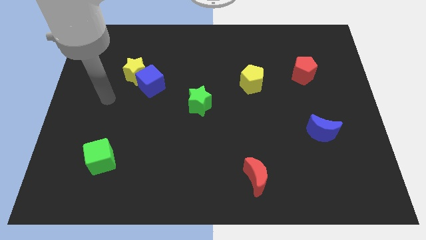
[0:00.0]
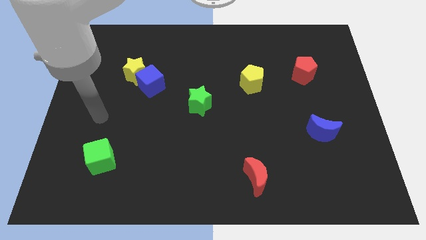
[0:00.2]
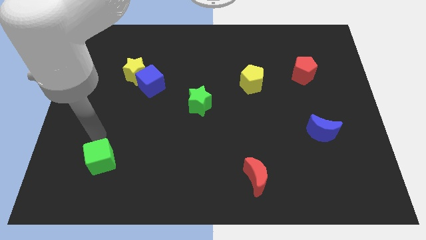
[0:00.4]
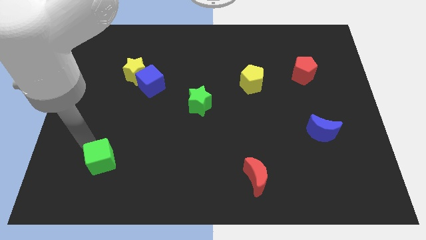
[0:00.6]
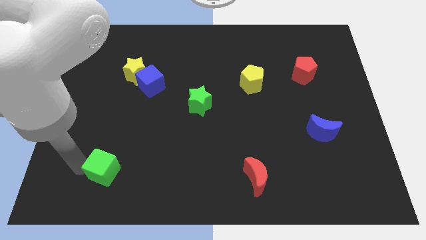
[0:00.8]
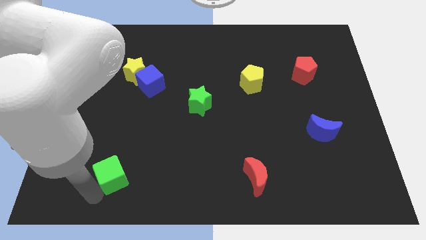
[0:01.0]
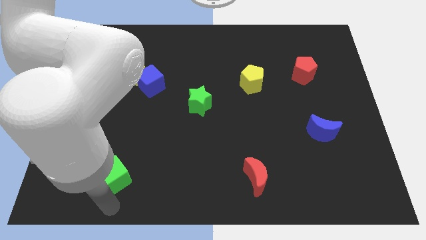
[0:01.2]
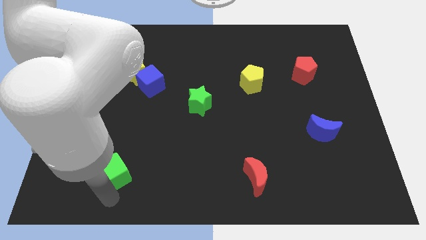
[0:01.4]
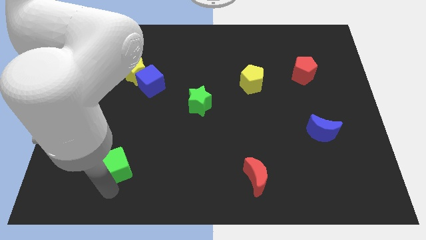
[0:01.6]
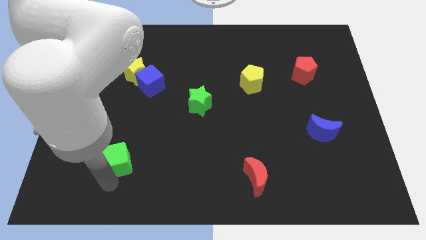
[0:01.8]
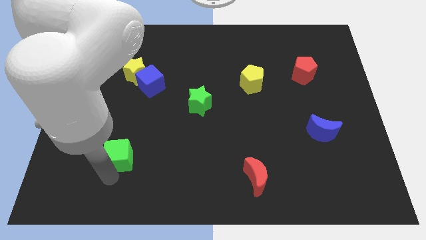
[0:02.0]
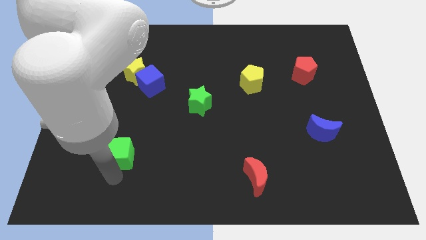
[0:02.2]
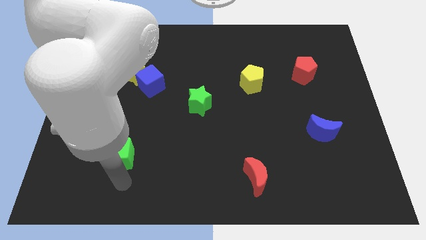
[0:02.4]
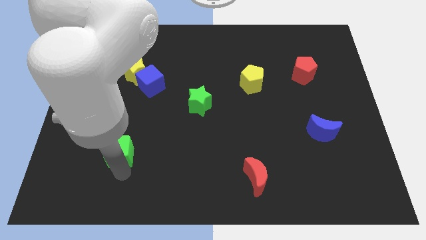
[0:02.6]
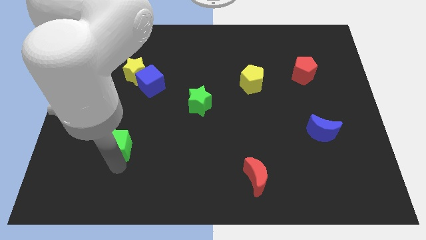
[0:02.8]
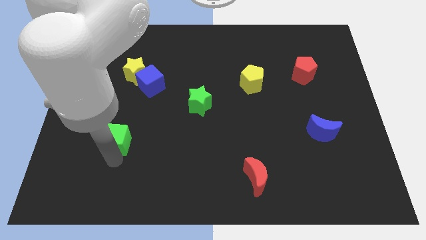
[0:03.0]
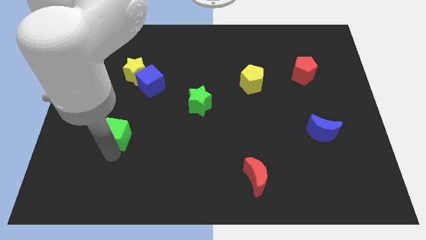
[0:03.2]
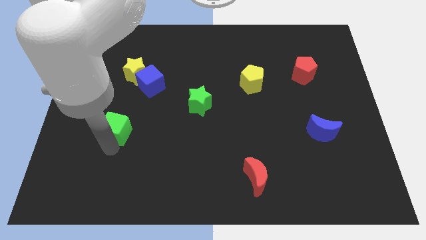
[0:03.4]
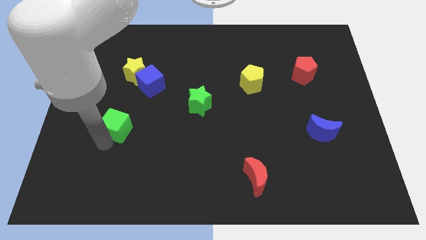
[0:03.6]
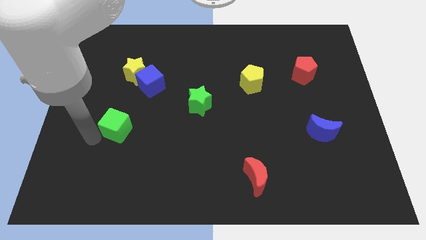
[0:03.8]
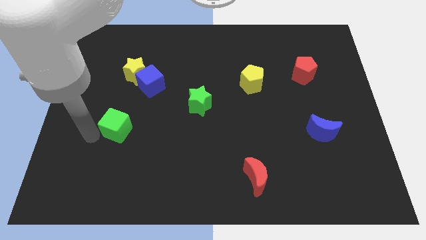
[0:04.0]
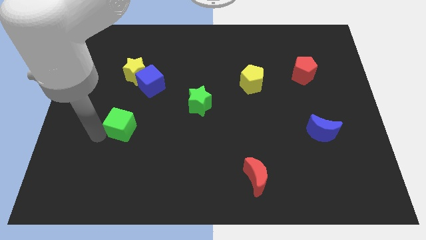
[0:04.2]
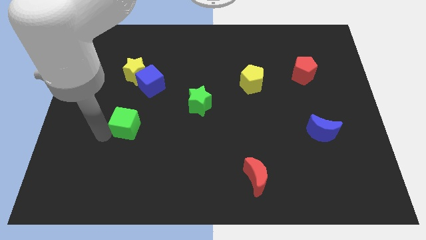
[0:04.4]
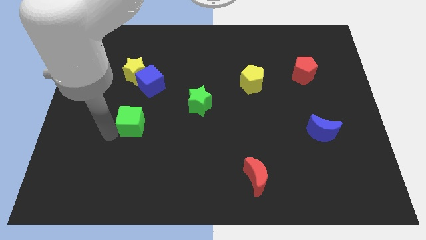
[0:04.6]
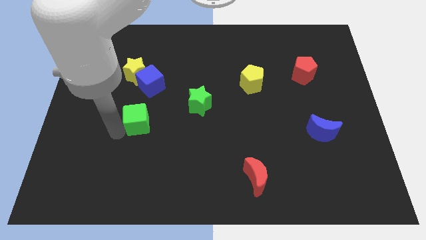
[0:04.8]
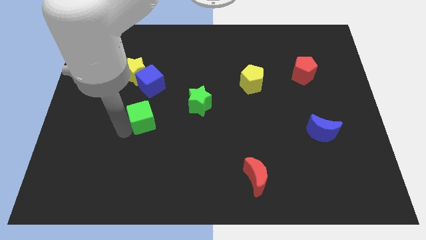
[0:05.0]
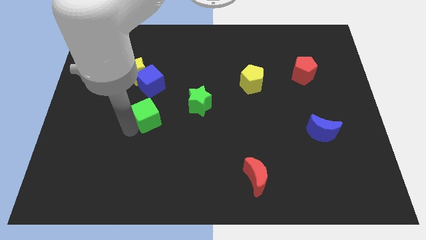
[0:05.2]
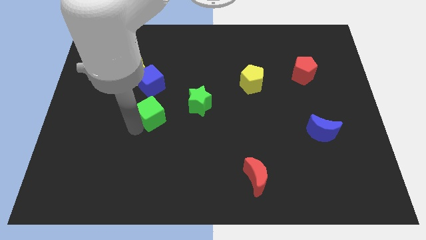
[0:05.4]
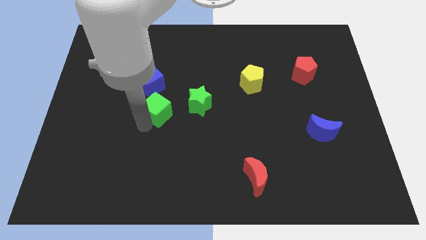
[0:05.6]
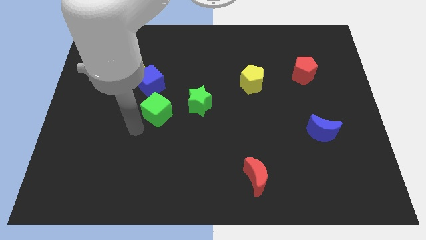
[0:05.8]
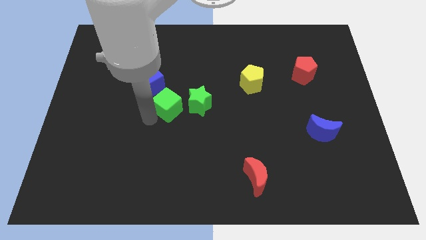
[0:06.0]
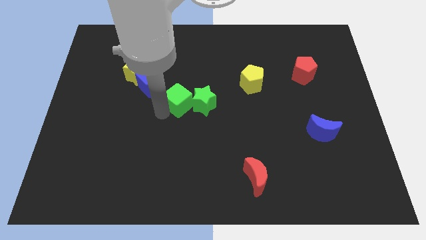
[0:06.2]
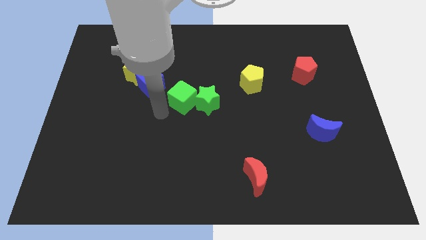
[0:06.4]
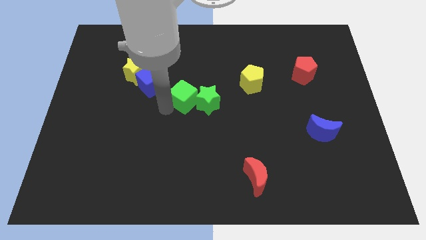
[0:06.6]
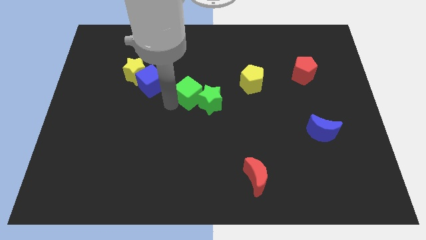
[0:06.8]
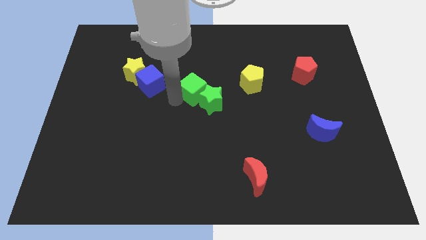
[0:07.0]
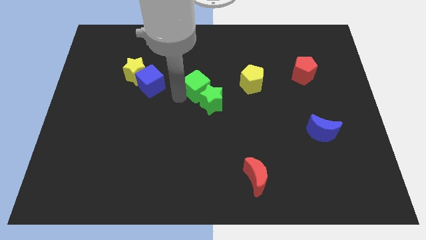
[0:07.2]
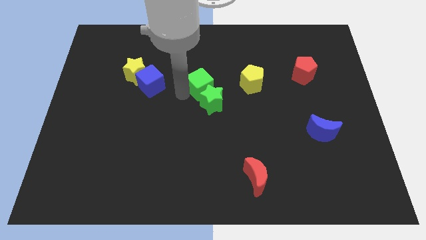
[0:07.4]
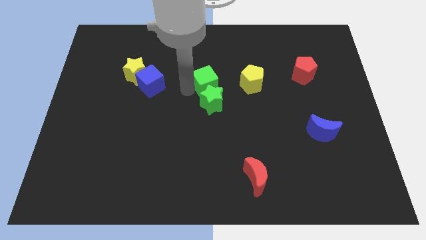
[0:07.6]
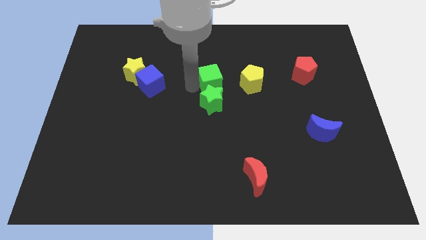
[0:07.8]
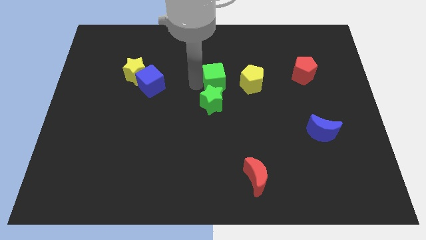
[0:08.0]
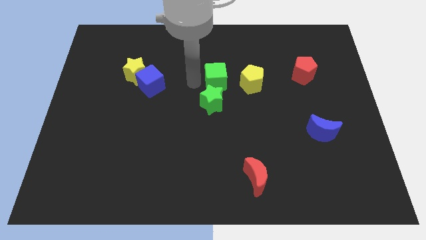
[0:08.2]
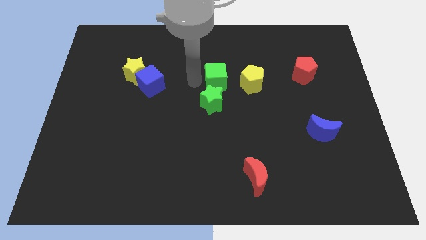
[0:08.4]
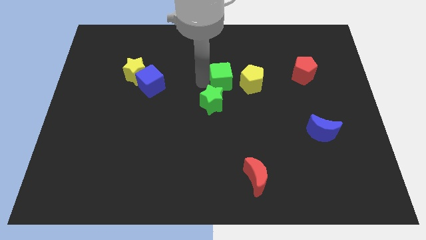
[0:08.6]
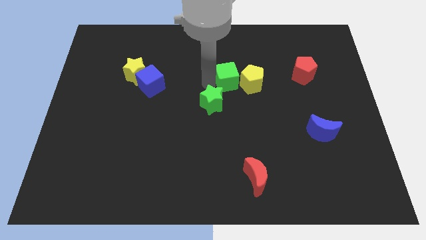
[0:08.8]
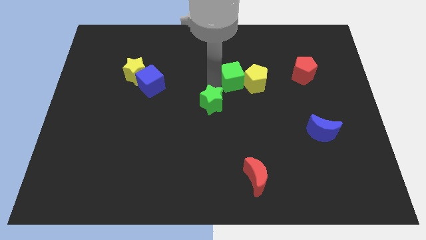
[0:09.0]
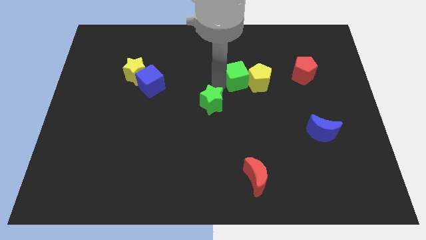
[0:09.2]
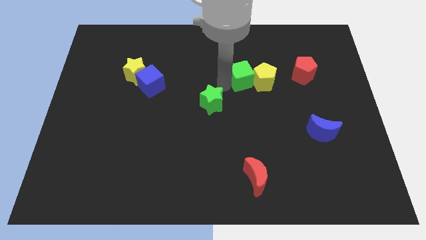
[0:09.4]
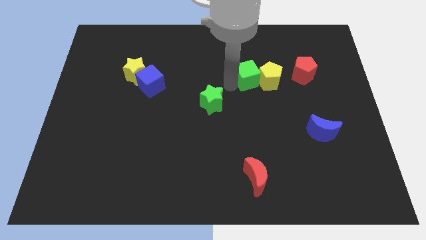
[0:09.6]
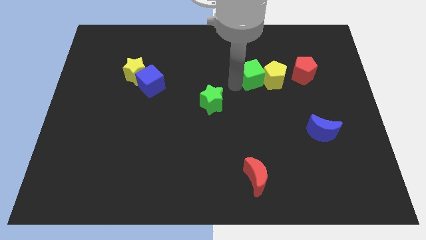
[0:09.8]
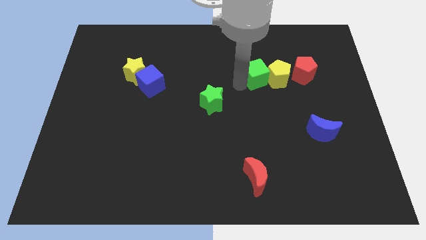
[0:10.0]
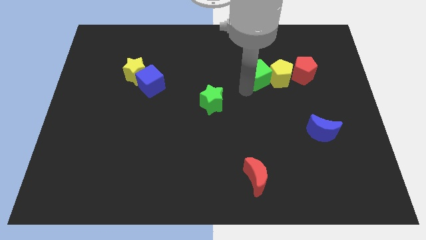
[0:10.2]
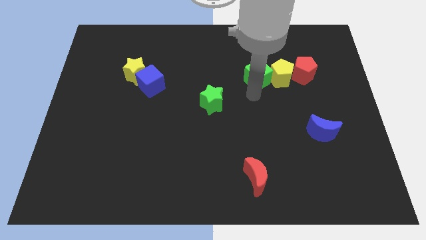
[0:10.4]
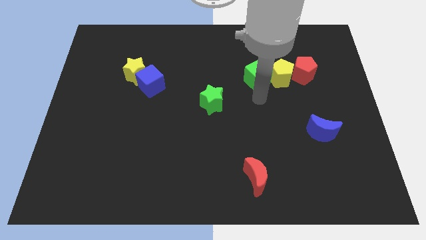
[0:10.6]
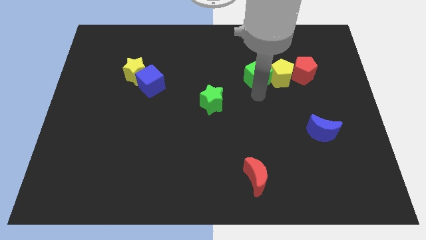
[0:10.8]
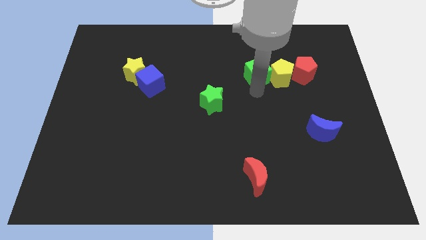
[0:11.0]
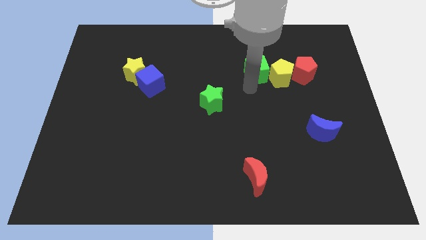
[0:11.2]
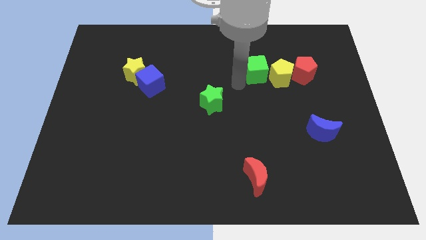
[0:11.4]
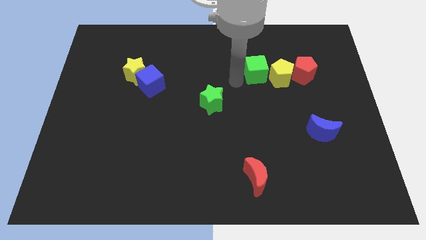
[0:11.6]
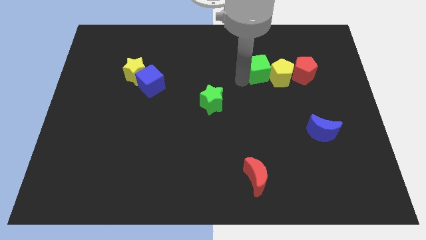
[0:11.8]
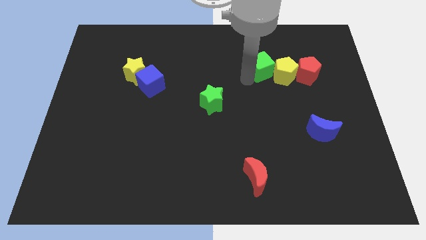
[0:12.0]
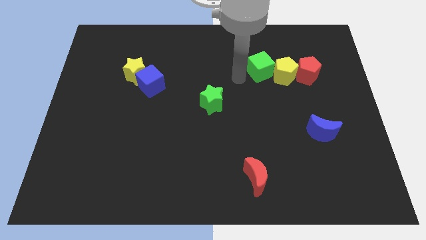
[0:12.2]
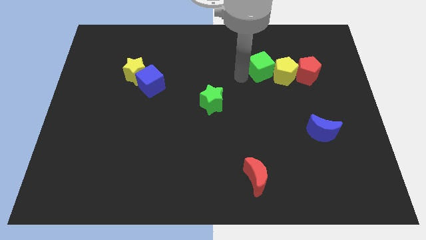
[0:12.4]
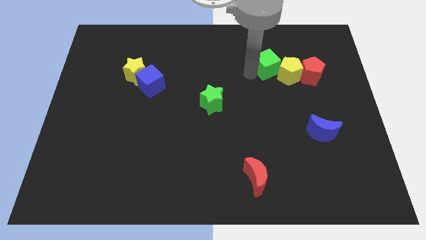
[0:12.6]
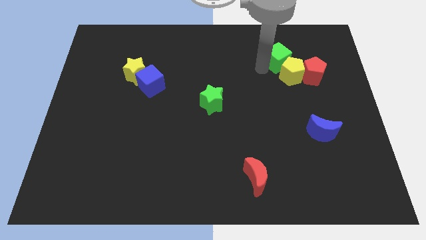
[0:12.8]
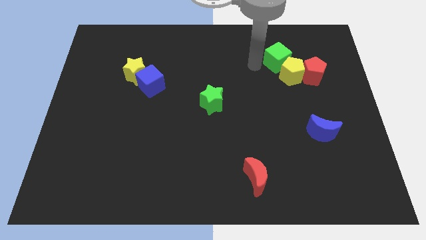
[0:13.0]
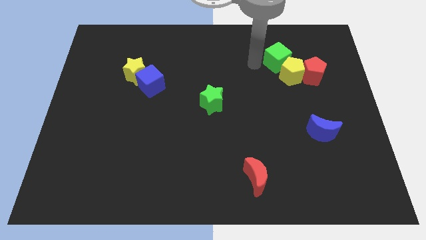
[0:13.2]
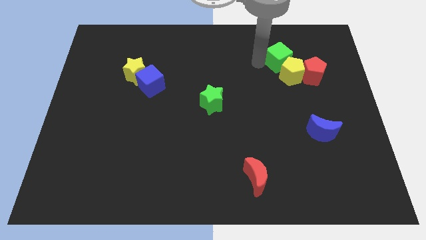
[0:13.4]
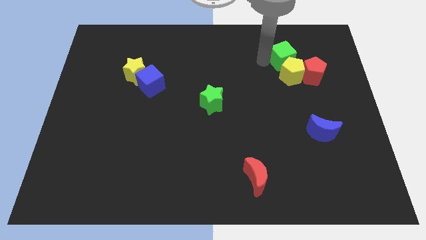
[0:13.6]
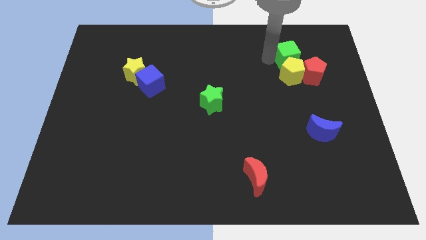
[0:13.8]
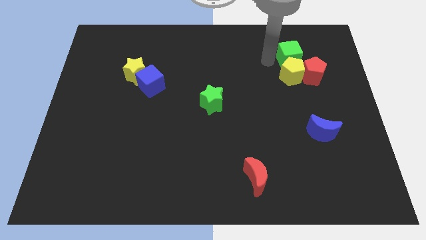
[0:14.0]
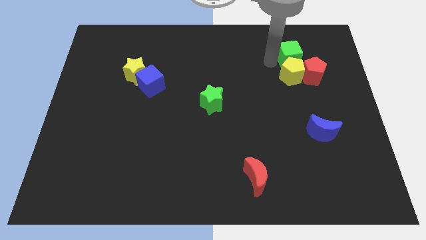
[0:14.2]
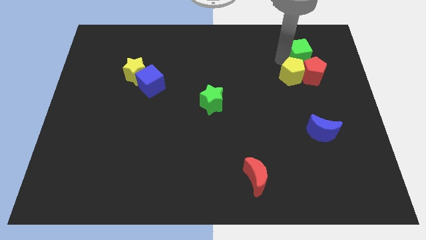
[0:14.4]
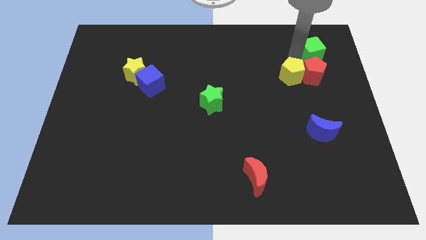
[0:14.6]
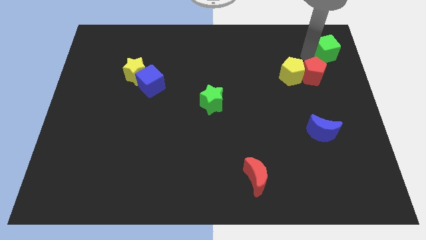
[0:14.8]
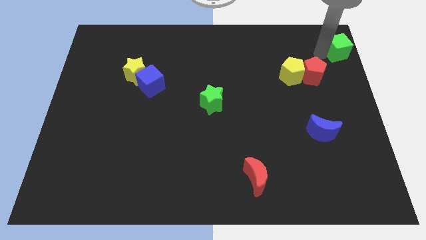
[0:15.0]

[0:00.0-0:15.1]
move the green cube to the upper right corner
